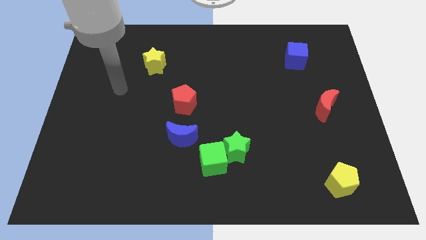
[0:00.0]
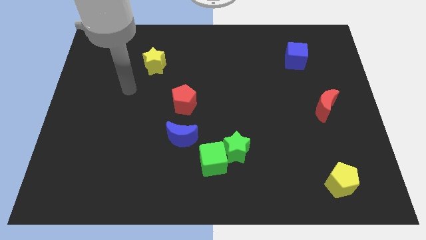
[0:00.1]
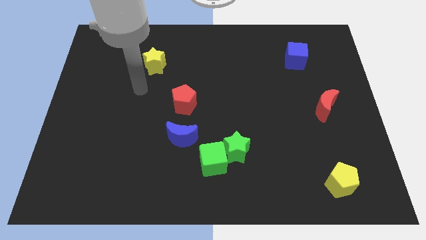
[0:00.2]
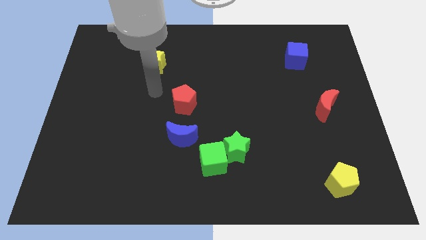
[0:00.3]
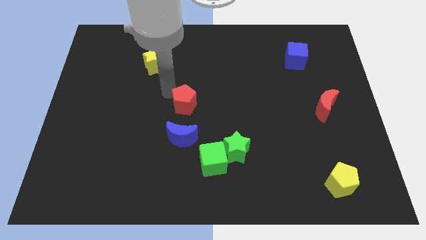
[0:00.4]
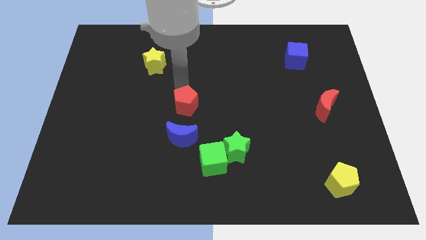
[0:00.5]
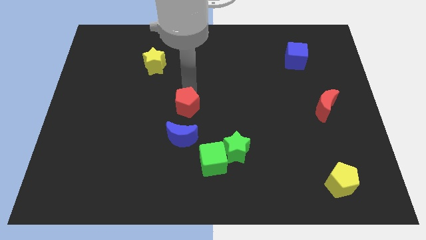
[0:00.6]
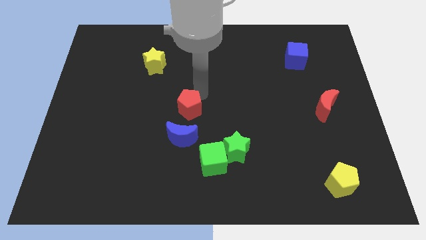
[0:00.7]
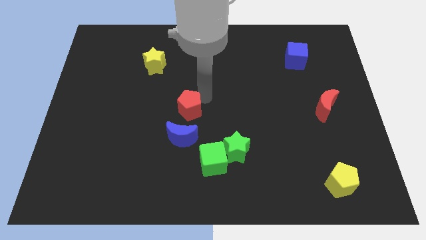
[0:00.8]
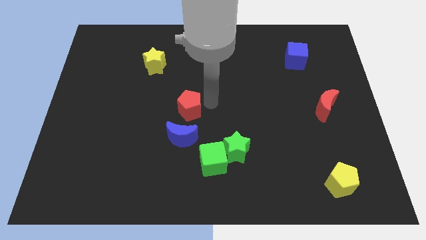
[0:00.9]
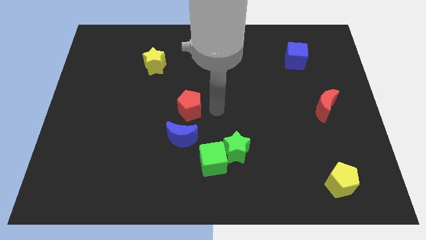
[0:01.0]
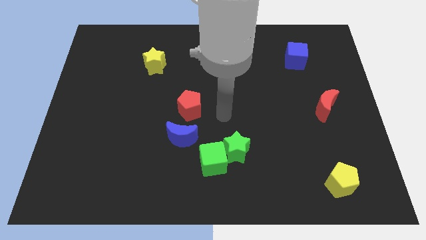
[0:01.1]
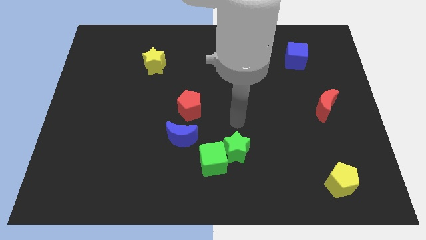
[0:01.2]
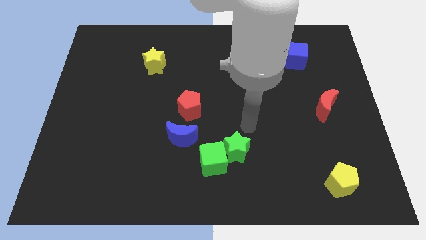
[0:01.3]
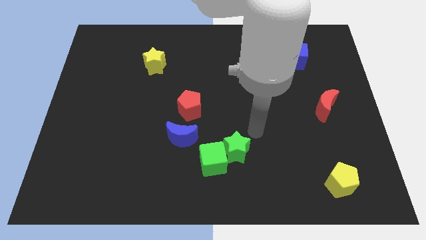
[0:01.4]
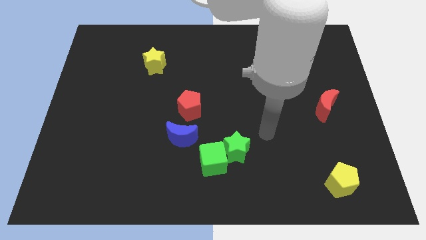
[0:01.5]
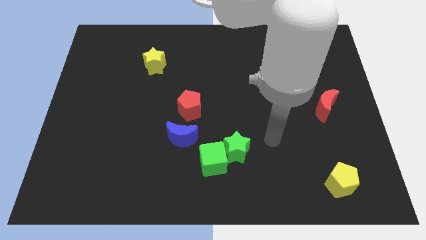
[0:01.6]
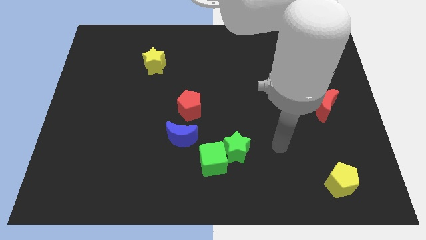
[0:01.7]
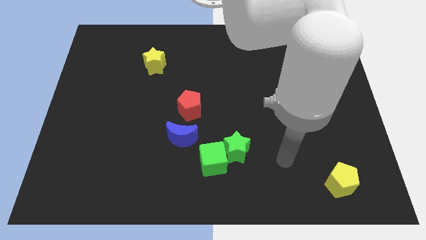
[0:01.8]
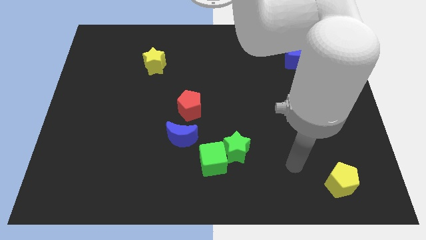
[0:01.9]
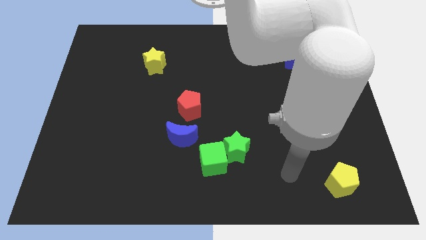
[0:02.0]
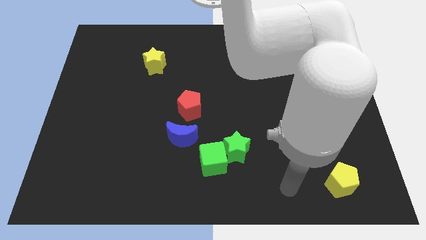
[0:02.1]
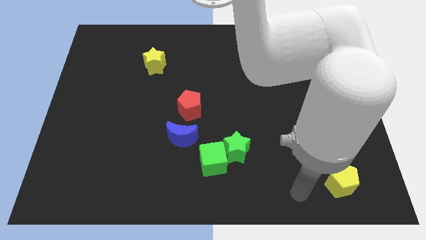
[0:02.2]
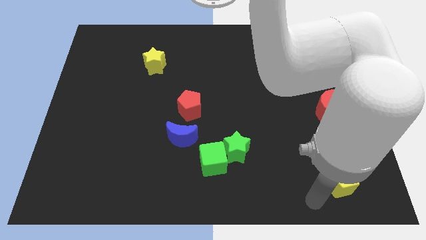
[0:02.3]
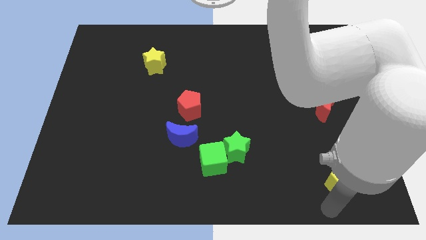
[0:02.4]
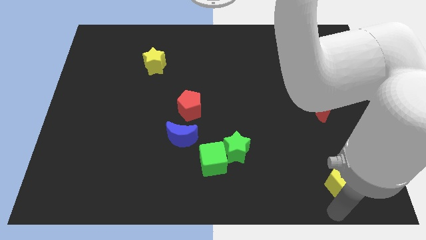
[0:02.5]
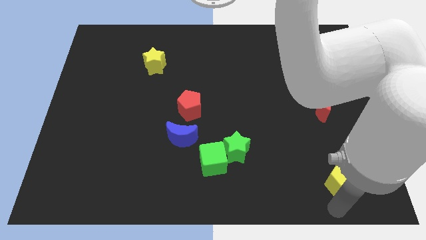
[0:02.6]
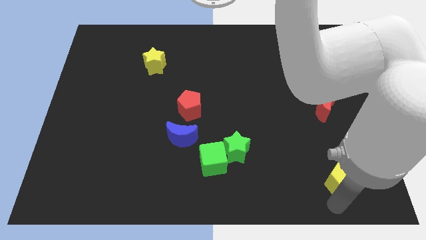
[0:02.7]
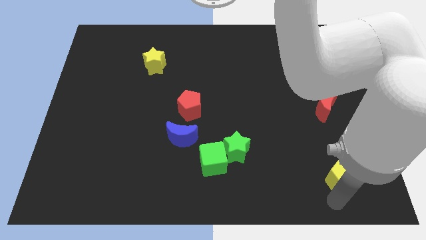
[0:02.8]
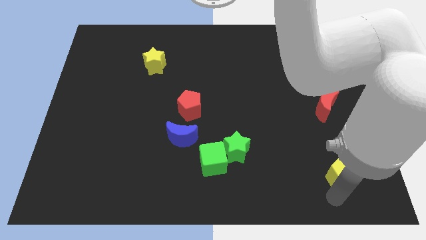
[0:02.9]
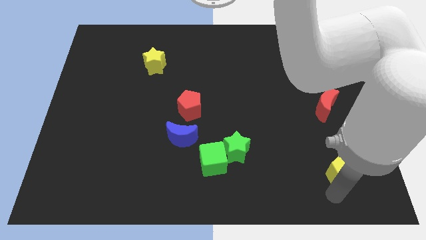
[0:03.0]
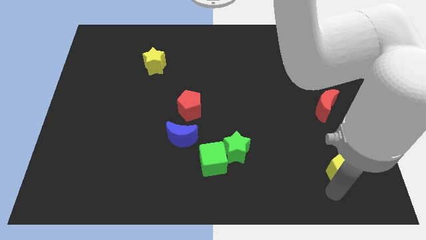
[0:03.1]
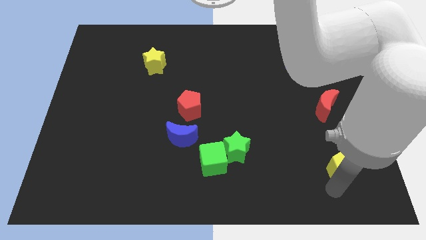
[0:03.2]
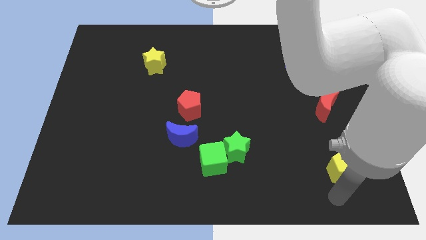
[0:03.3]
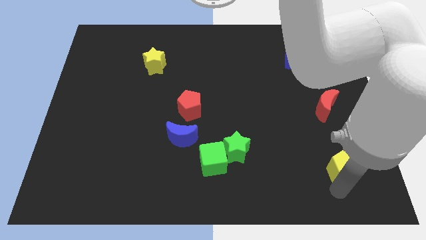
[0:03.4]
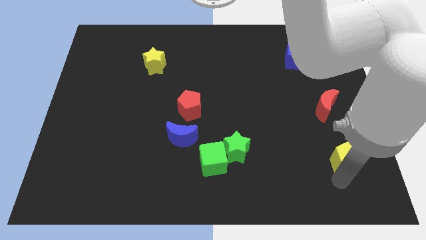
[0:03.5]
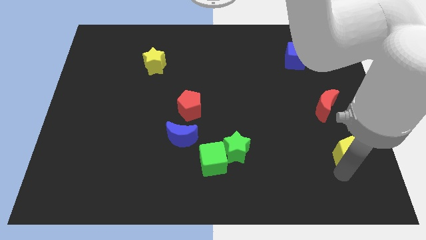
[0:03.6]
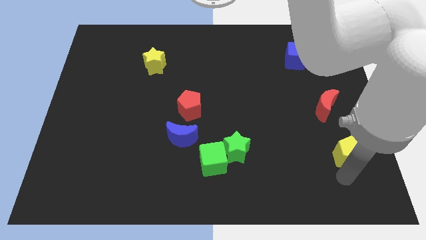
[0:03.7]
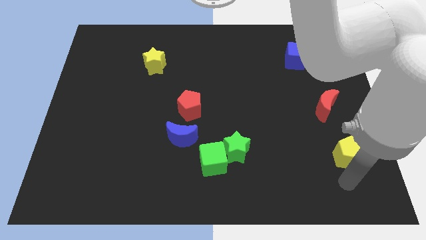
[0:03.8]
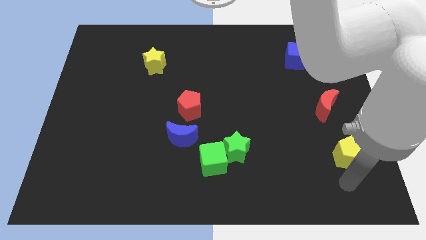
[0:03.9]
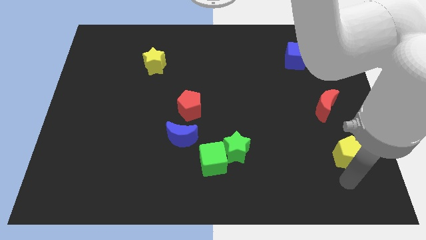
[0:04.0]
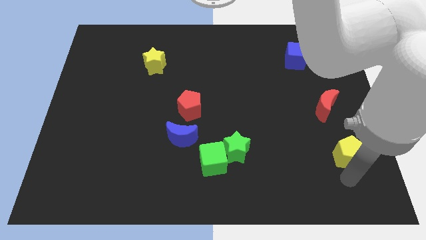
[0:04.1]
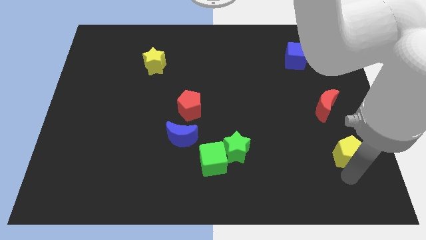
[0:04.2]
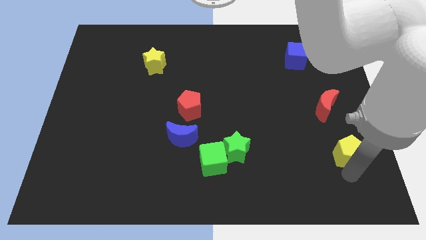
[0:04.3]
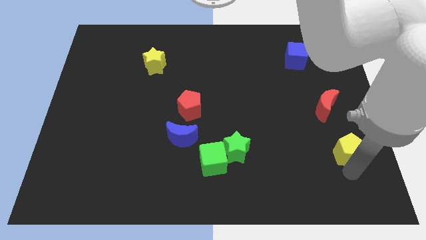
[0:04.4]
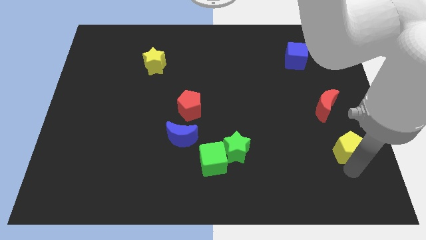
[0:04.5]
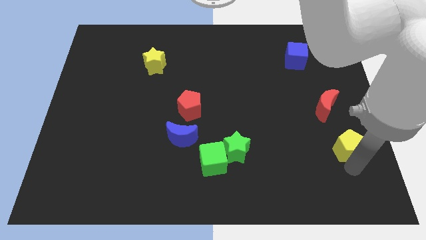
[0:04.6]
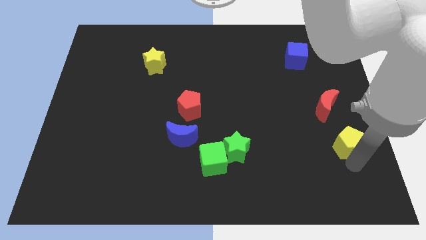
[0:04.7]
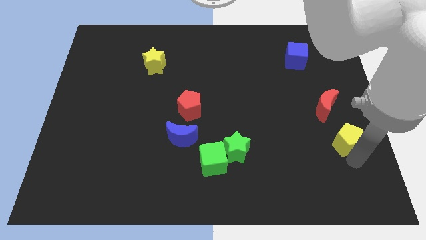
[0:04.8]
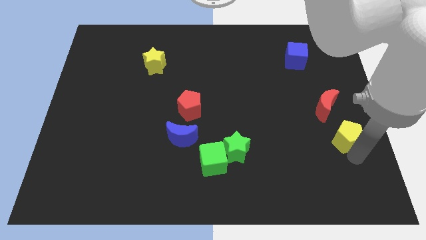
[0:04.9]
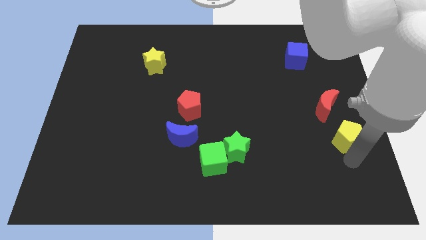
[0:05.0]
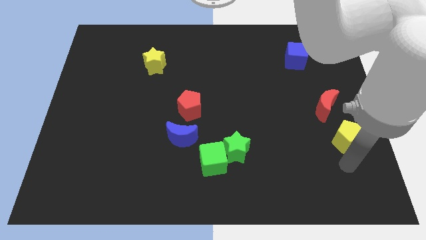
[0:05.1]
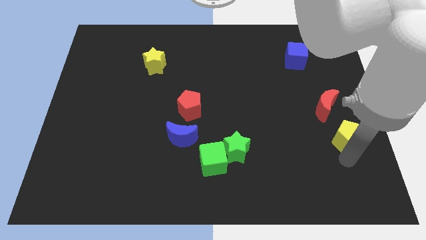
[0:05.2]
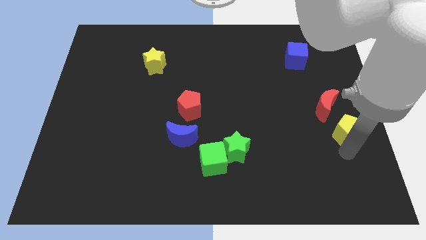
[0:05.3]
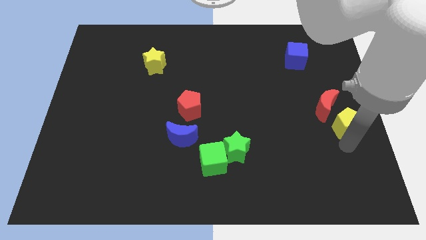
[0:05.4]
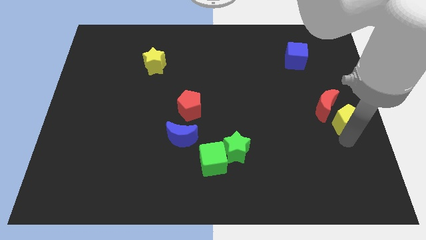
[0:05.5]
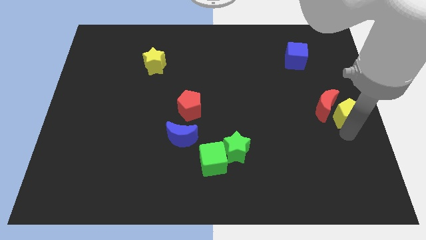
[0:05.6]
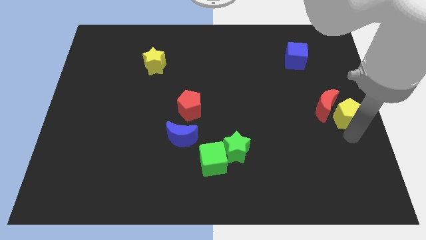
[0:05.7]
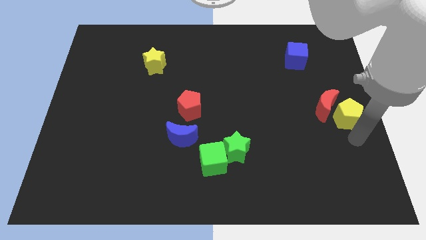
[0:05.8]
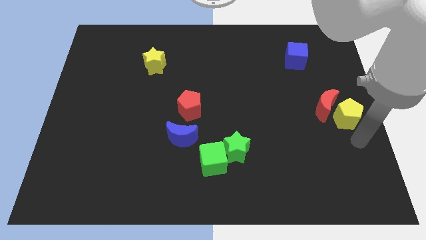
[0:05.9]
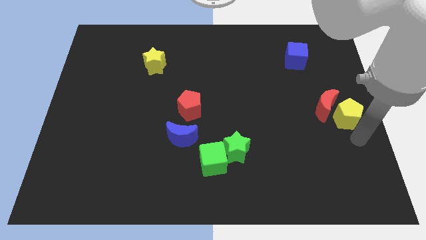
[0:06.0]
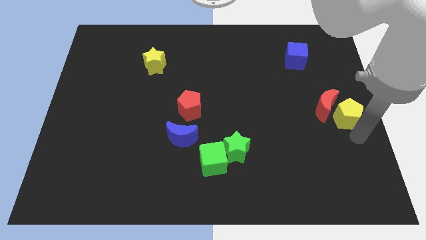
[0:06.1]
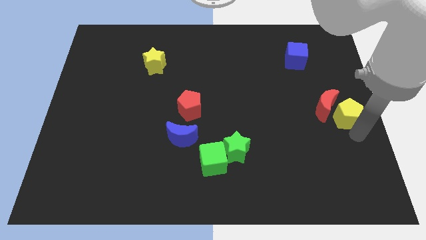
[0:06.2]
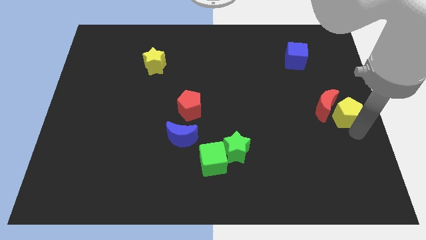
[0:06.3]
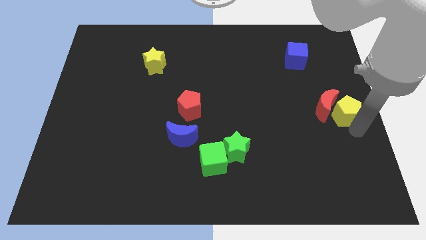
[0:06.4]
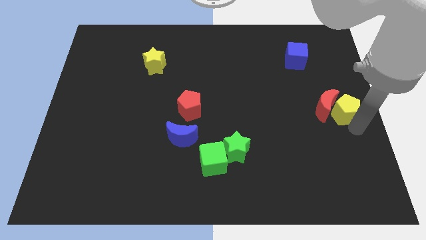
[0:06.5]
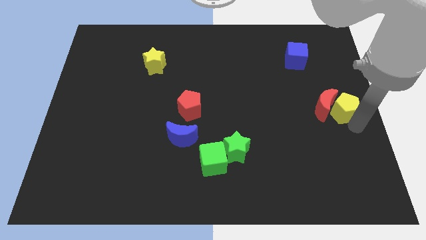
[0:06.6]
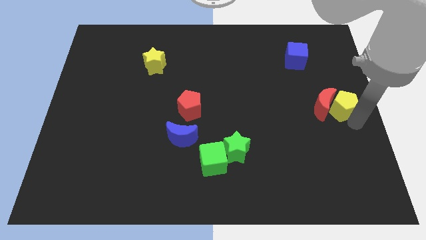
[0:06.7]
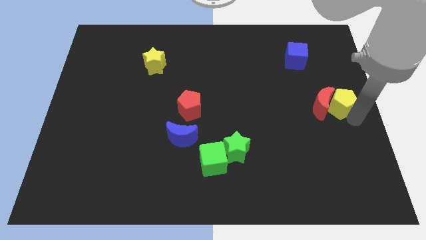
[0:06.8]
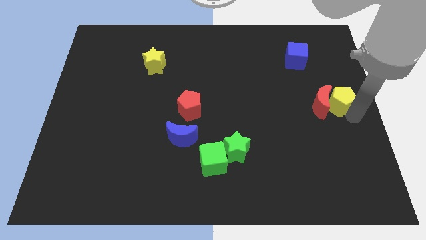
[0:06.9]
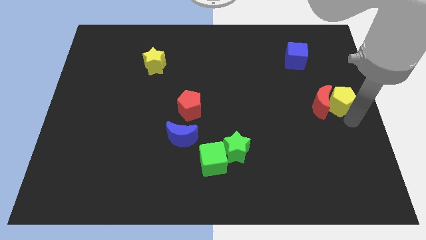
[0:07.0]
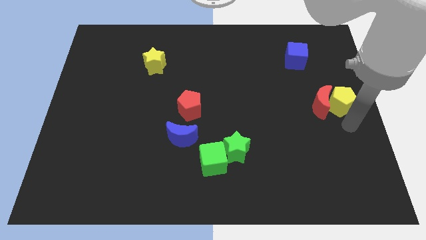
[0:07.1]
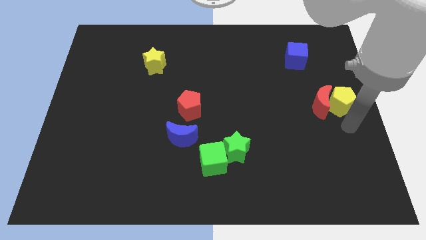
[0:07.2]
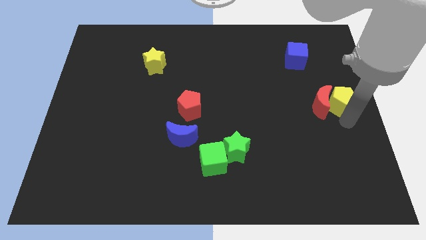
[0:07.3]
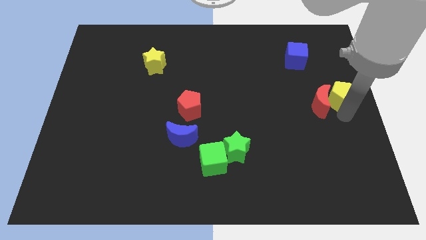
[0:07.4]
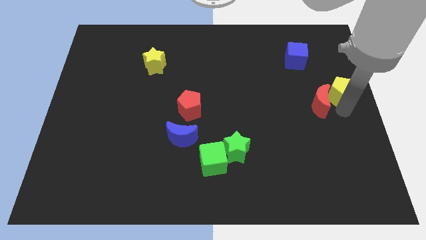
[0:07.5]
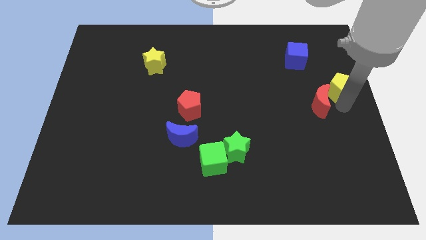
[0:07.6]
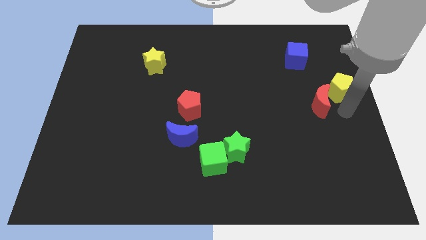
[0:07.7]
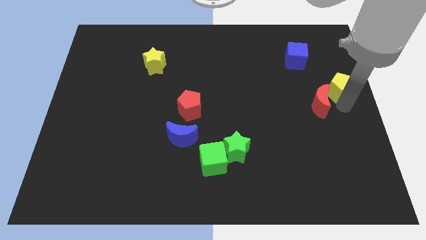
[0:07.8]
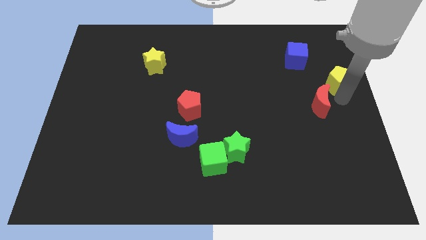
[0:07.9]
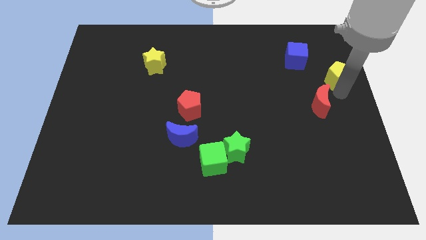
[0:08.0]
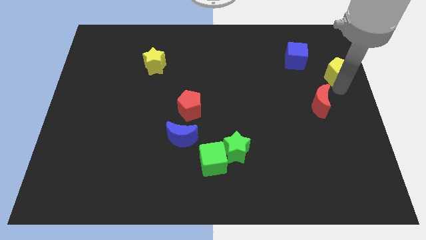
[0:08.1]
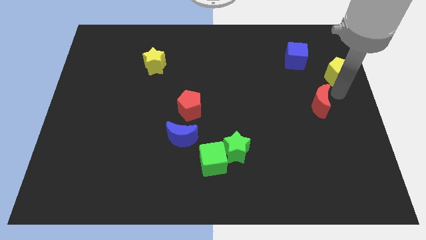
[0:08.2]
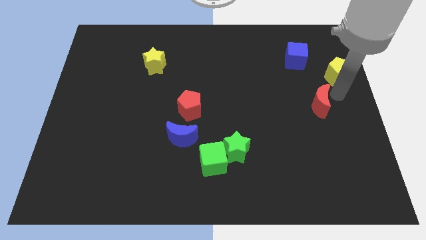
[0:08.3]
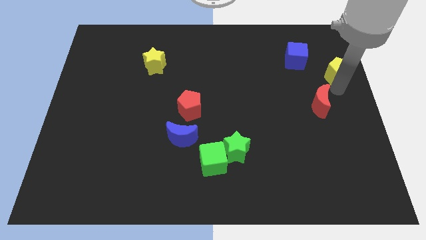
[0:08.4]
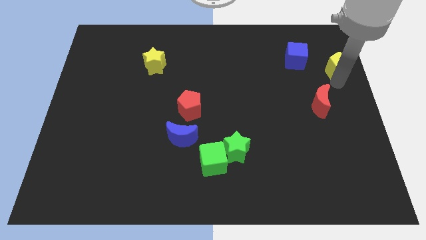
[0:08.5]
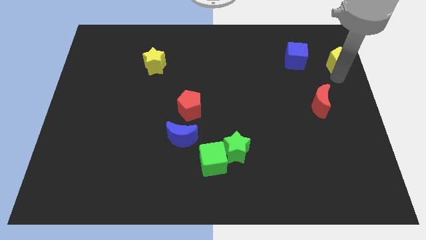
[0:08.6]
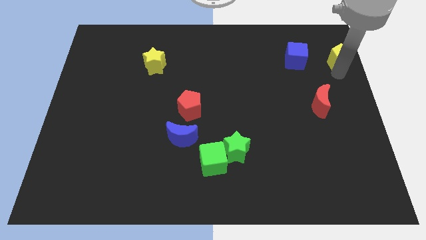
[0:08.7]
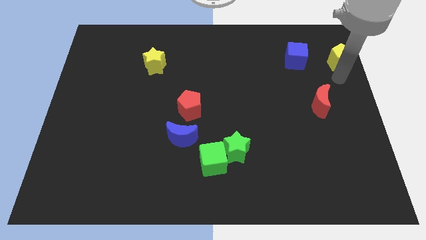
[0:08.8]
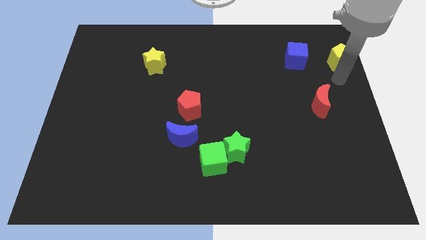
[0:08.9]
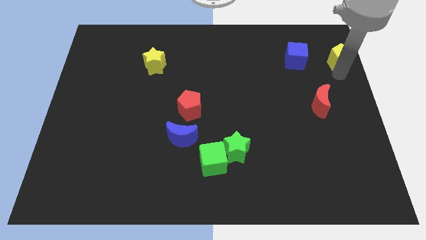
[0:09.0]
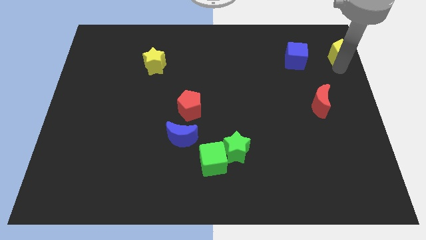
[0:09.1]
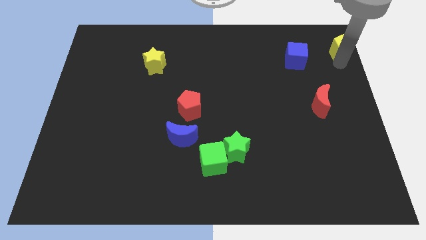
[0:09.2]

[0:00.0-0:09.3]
slide the yellow pentagon to the top right of the board
